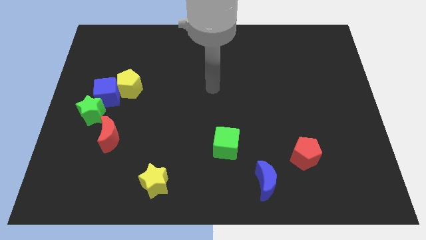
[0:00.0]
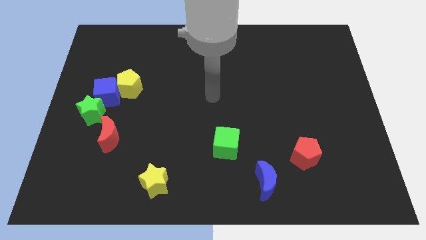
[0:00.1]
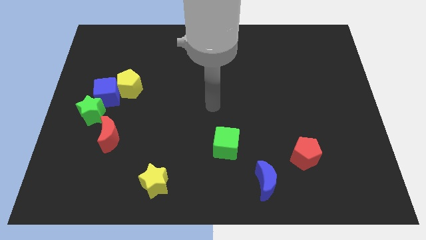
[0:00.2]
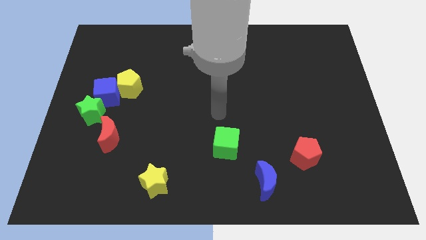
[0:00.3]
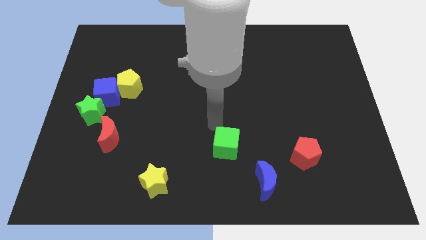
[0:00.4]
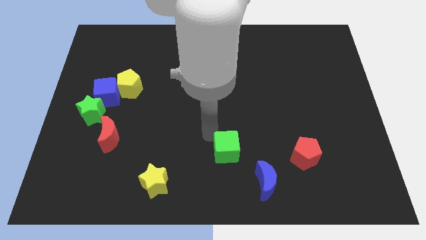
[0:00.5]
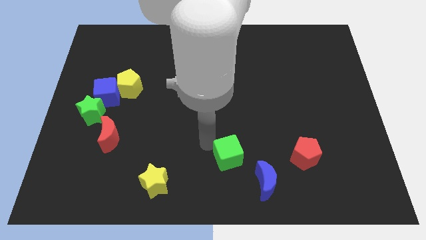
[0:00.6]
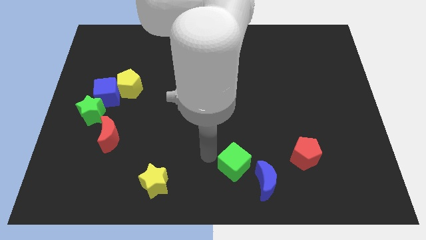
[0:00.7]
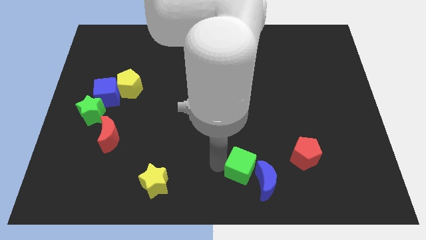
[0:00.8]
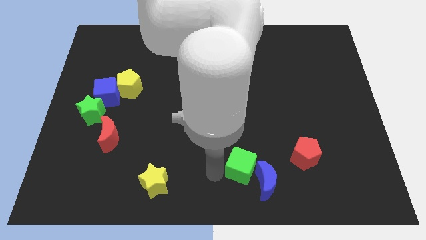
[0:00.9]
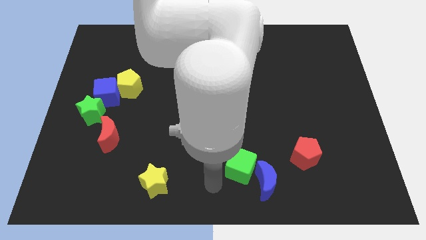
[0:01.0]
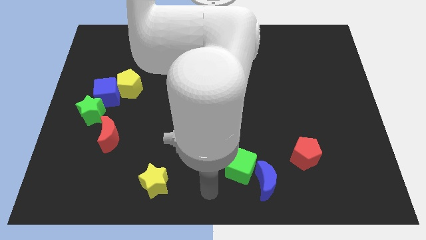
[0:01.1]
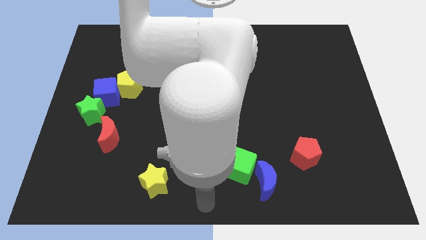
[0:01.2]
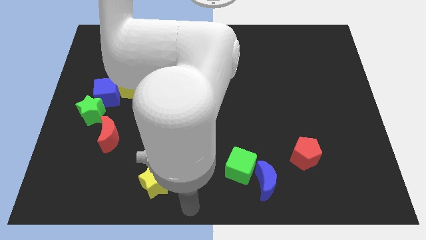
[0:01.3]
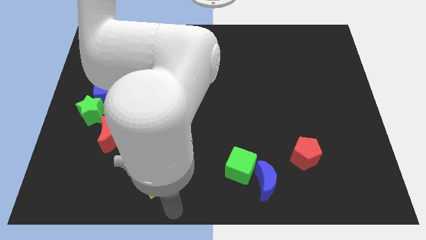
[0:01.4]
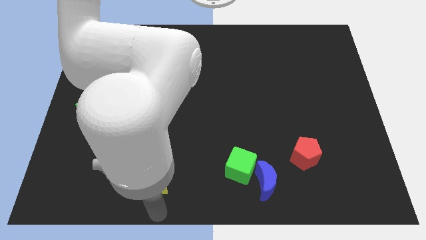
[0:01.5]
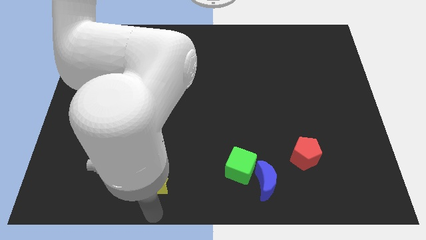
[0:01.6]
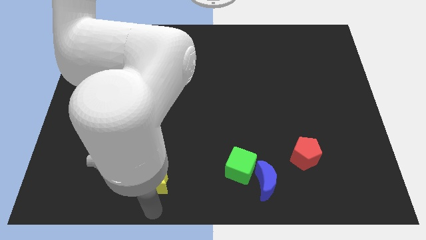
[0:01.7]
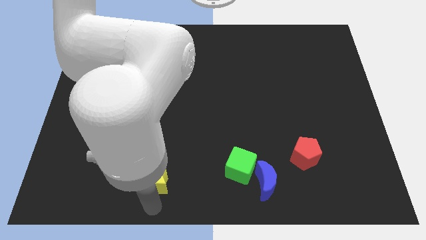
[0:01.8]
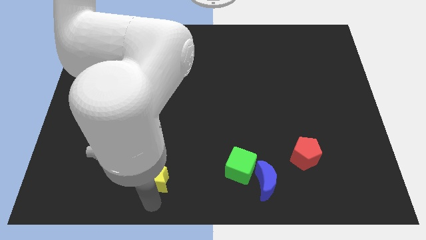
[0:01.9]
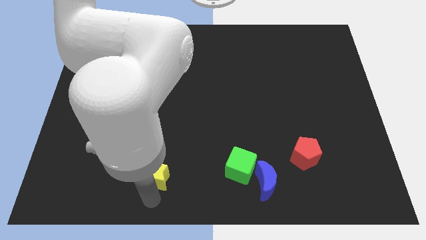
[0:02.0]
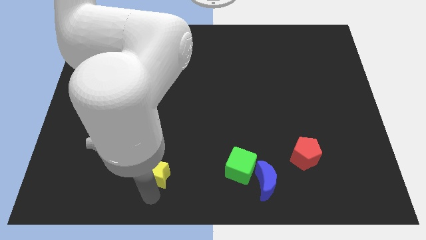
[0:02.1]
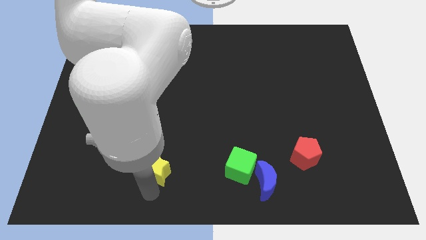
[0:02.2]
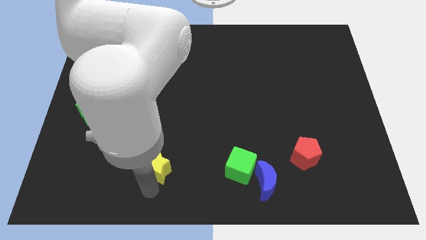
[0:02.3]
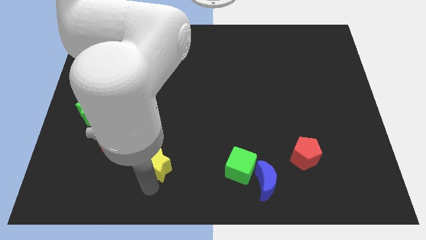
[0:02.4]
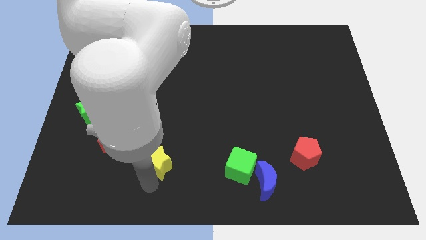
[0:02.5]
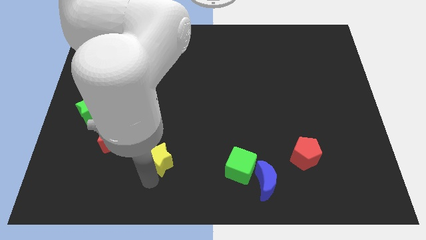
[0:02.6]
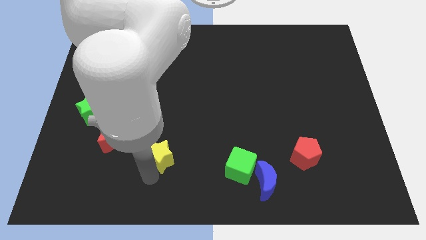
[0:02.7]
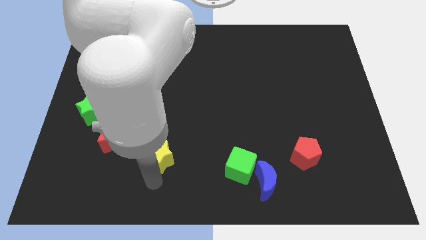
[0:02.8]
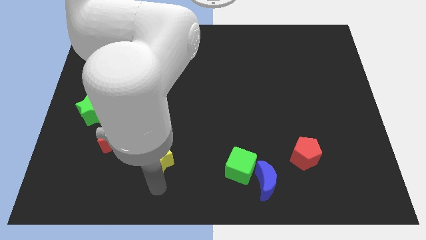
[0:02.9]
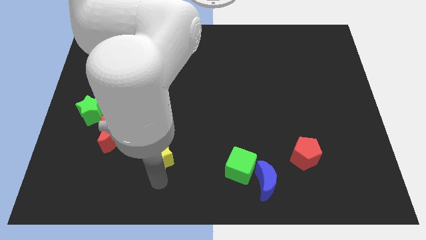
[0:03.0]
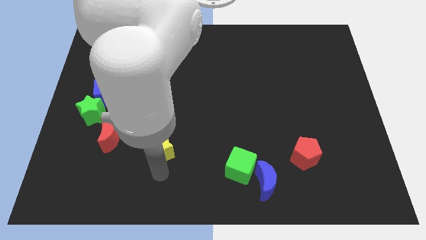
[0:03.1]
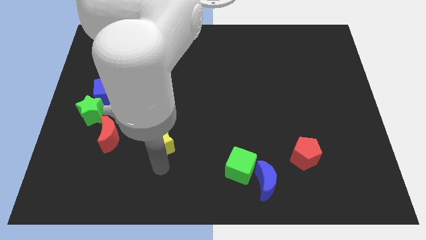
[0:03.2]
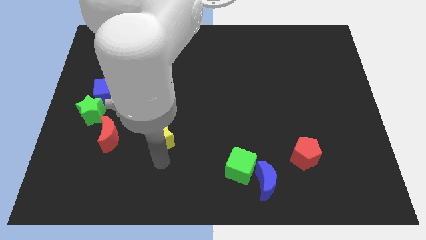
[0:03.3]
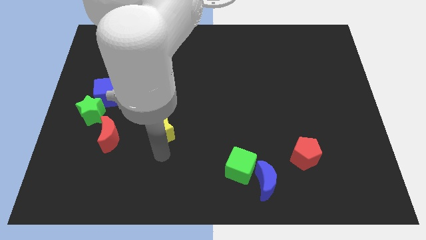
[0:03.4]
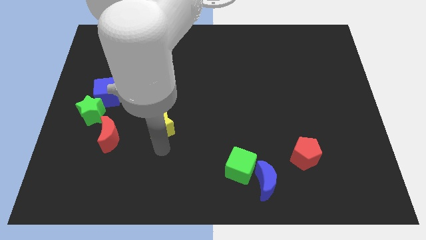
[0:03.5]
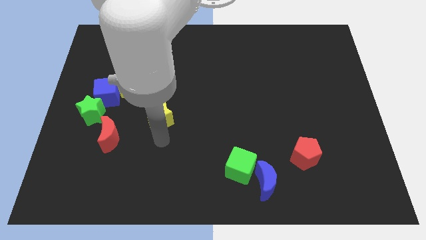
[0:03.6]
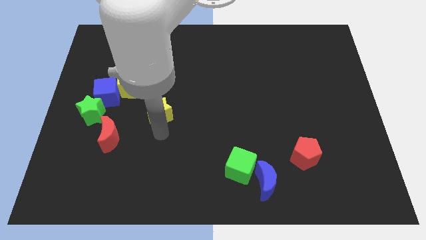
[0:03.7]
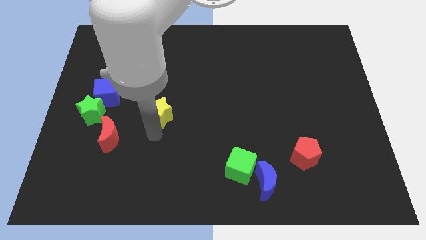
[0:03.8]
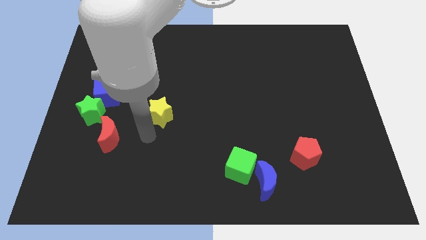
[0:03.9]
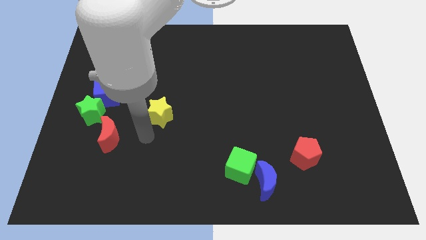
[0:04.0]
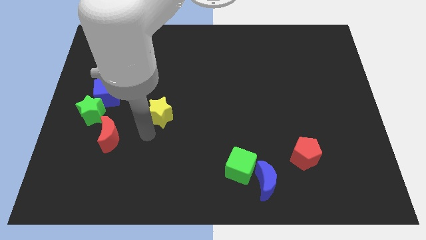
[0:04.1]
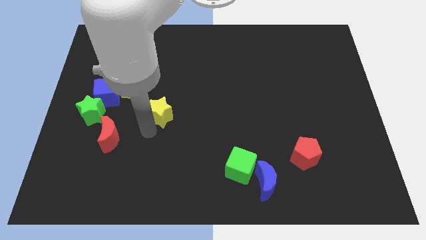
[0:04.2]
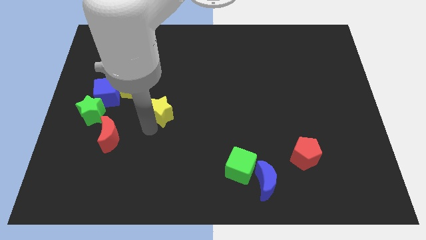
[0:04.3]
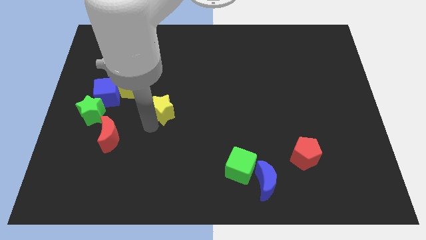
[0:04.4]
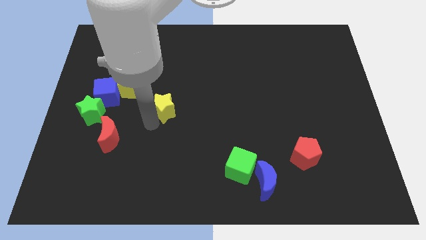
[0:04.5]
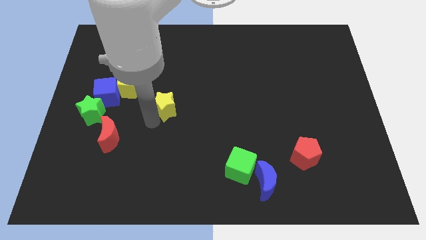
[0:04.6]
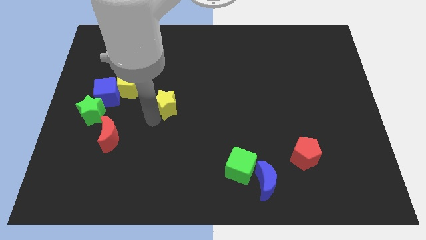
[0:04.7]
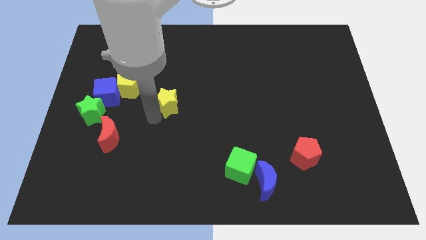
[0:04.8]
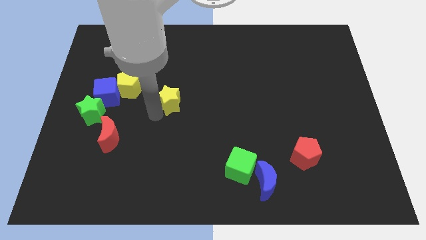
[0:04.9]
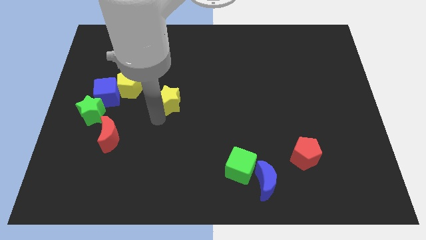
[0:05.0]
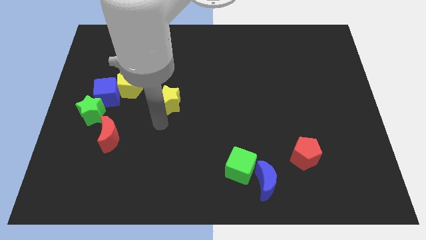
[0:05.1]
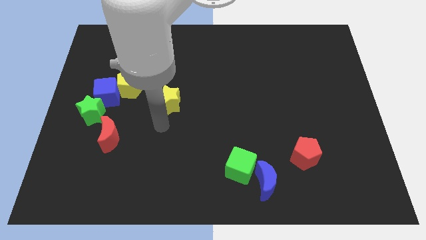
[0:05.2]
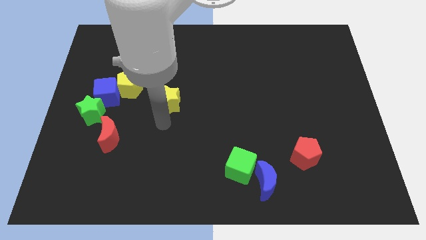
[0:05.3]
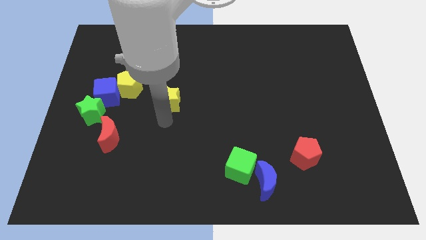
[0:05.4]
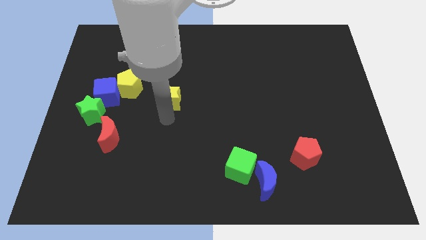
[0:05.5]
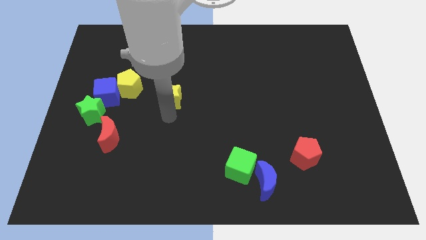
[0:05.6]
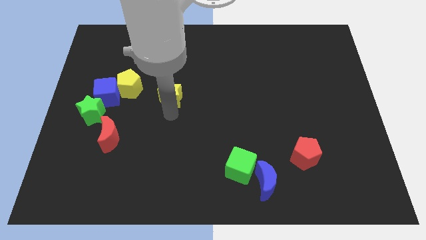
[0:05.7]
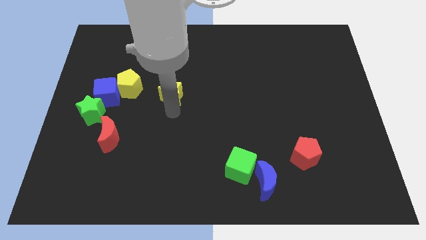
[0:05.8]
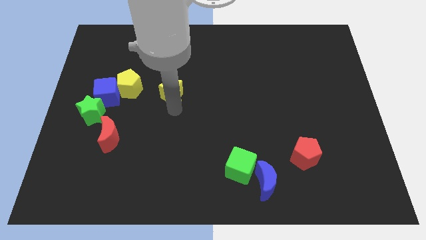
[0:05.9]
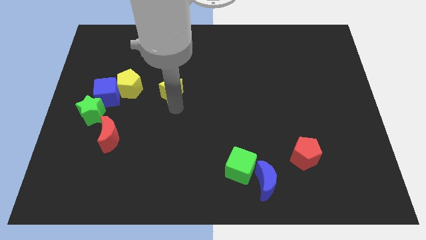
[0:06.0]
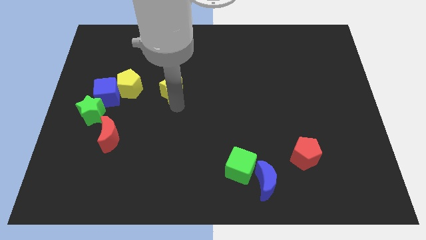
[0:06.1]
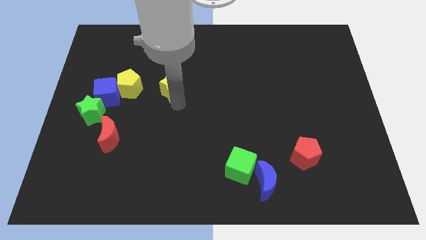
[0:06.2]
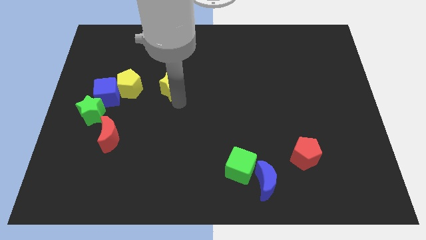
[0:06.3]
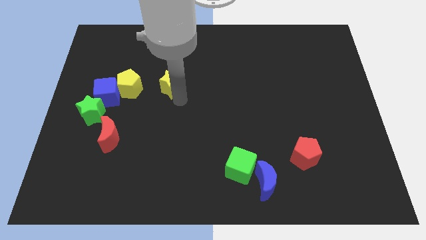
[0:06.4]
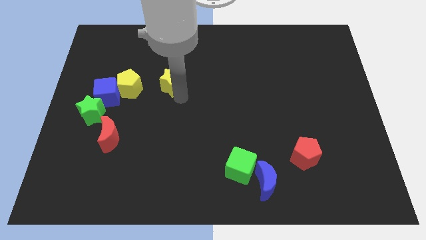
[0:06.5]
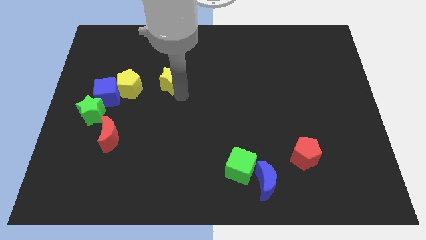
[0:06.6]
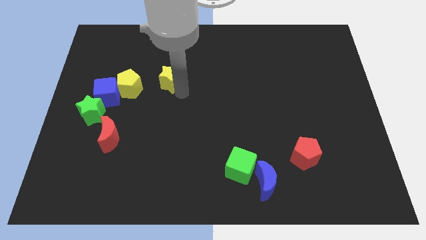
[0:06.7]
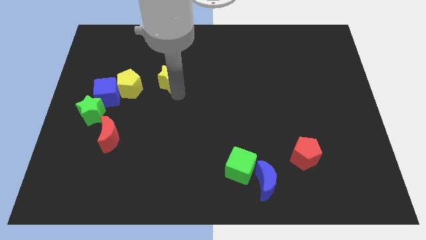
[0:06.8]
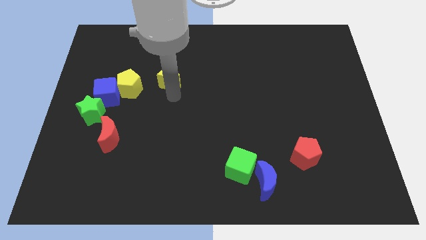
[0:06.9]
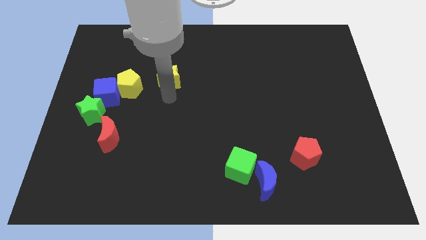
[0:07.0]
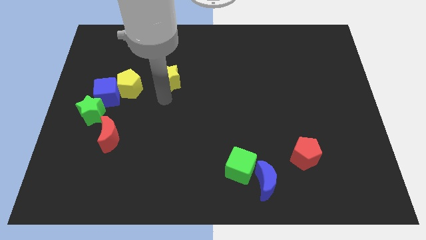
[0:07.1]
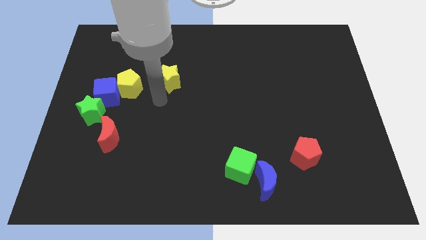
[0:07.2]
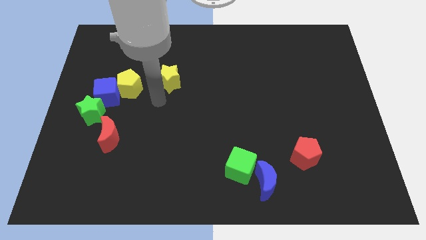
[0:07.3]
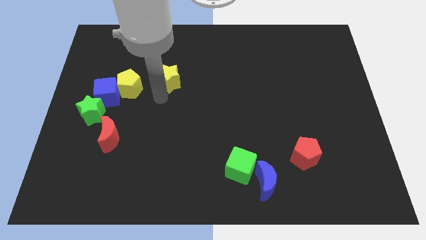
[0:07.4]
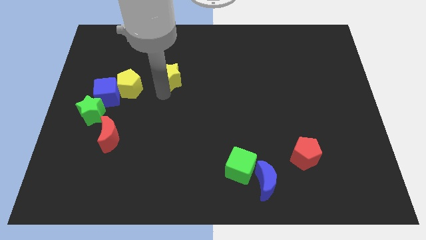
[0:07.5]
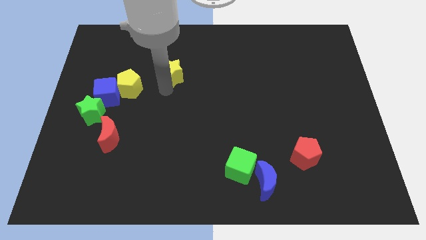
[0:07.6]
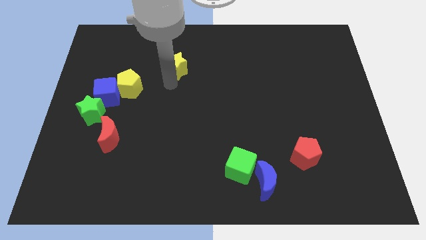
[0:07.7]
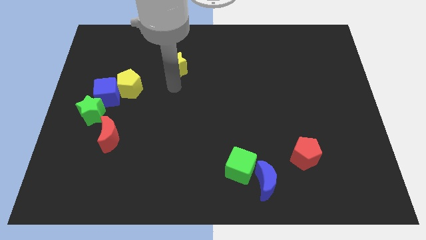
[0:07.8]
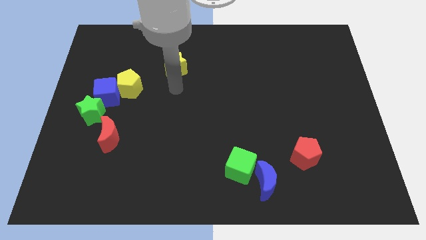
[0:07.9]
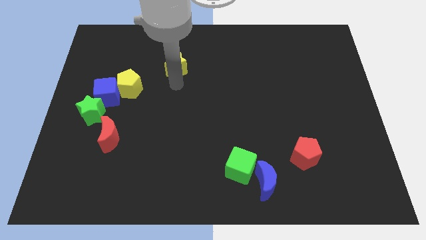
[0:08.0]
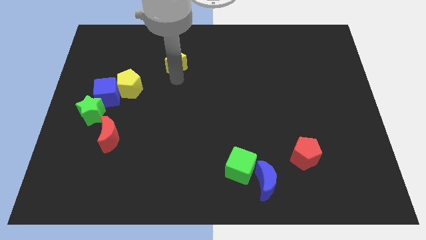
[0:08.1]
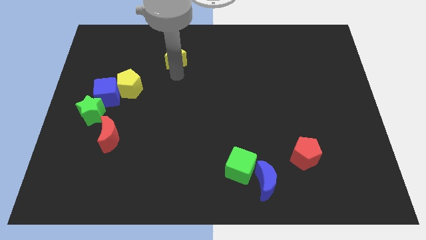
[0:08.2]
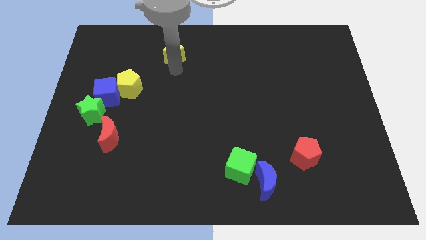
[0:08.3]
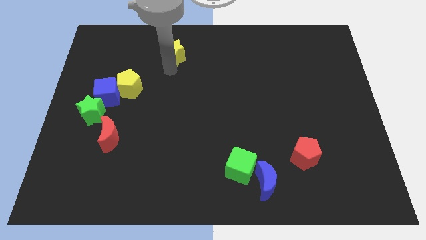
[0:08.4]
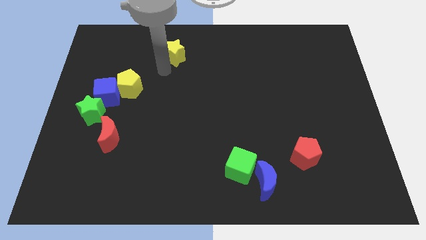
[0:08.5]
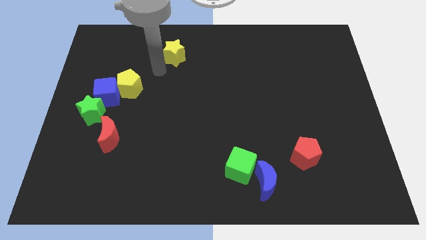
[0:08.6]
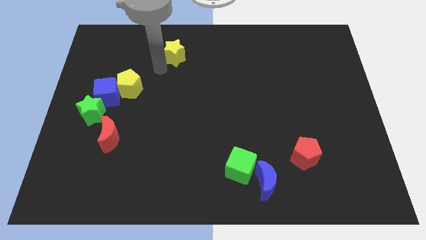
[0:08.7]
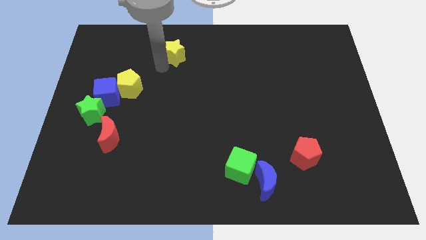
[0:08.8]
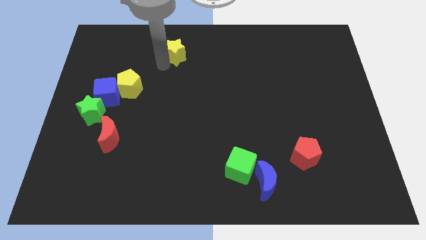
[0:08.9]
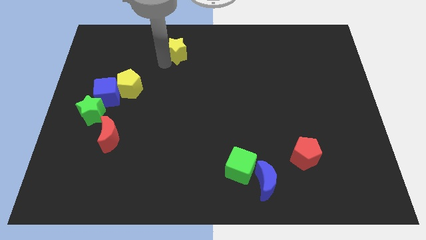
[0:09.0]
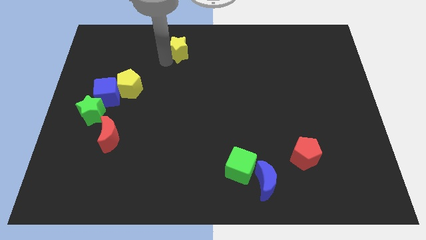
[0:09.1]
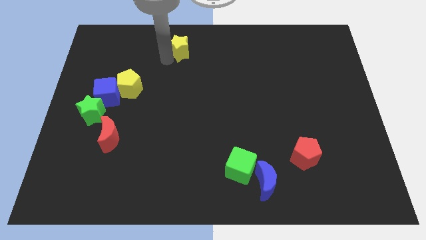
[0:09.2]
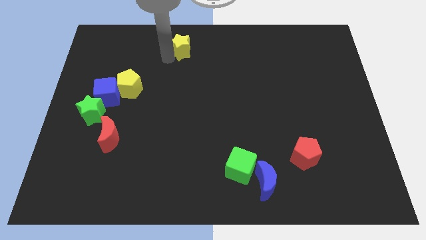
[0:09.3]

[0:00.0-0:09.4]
move the yellow star to the top side
